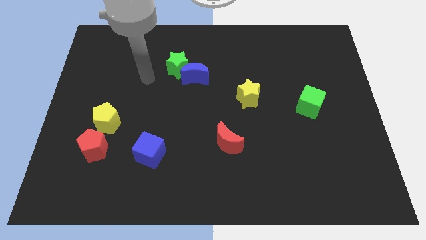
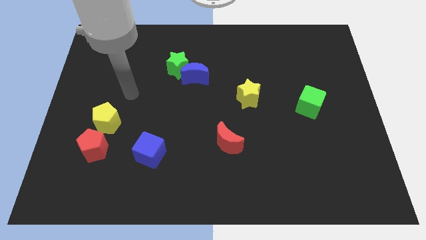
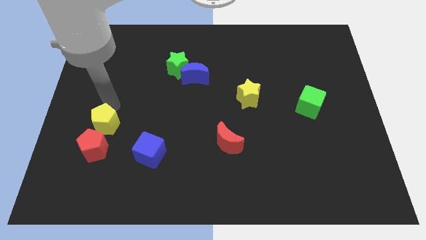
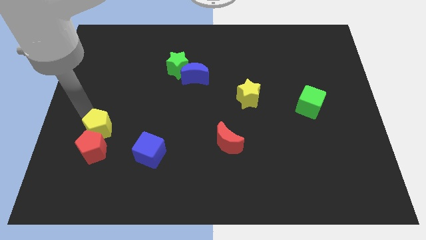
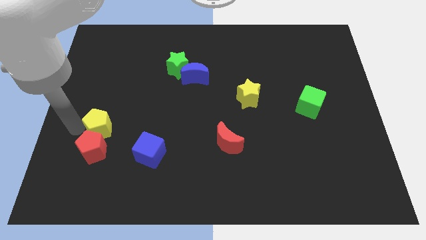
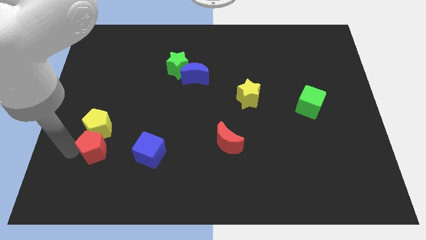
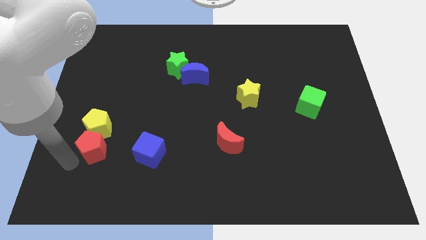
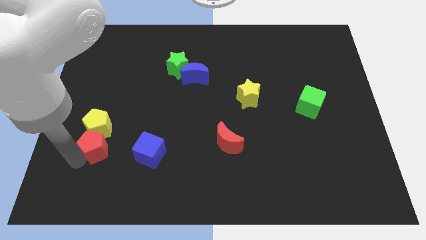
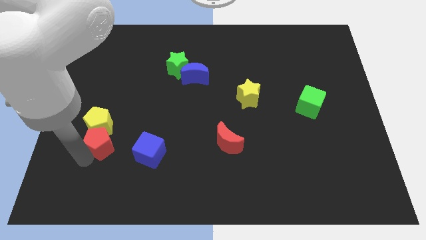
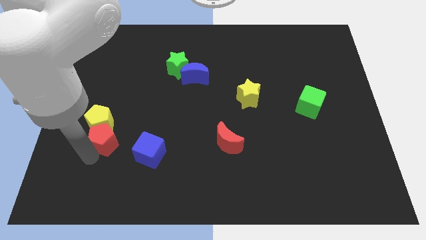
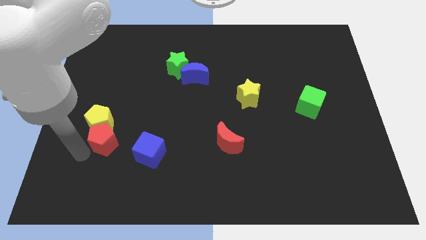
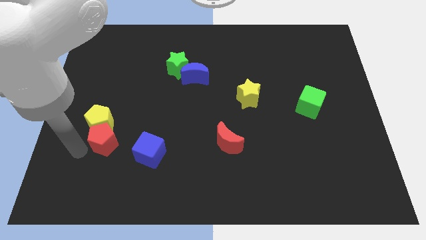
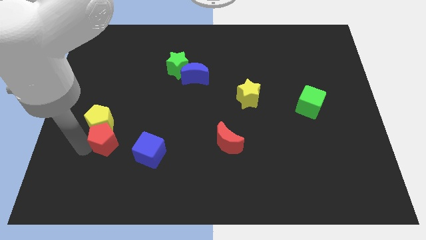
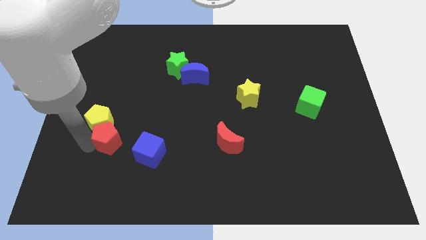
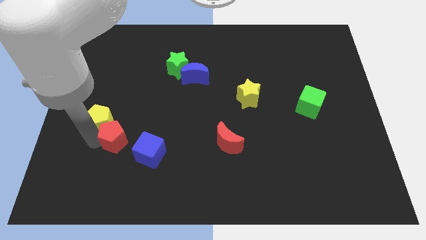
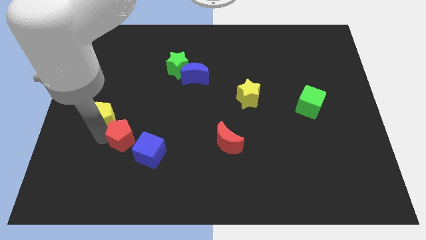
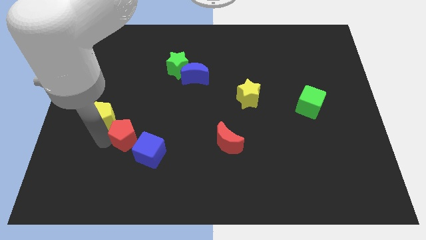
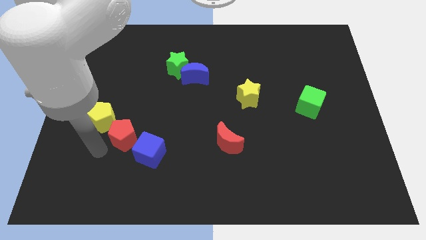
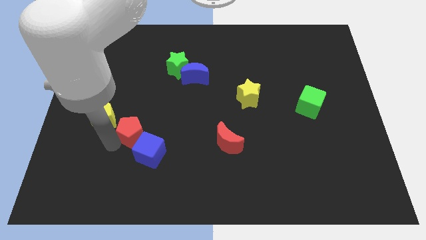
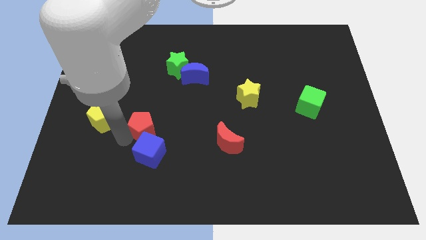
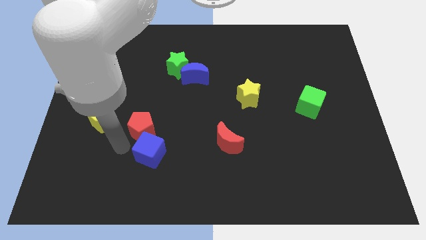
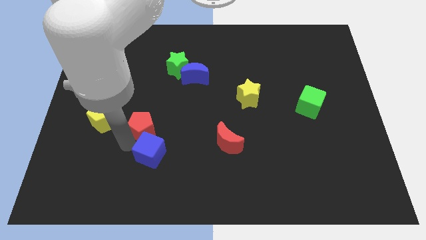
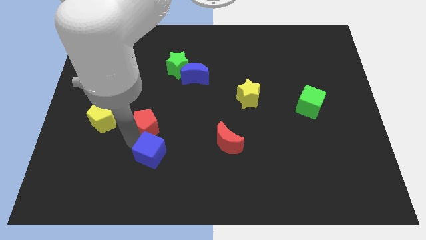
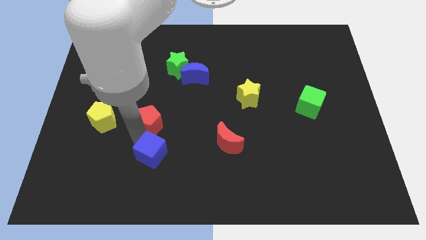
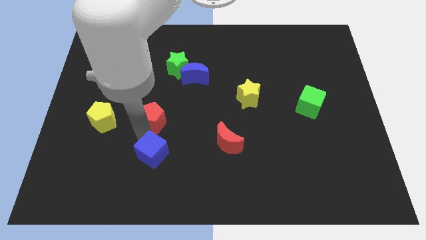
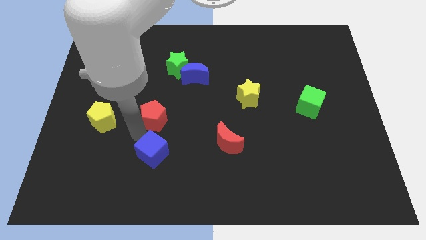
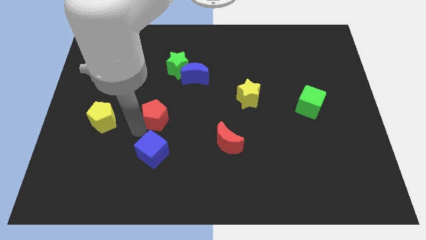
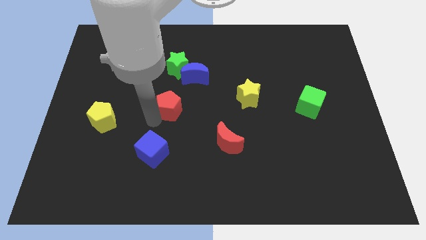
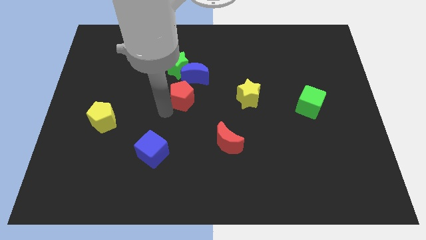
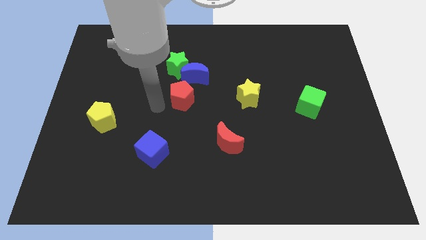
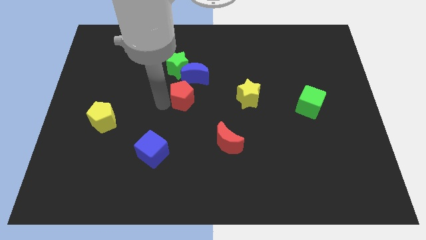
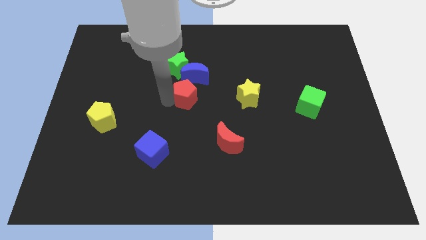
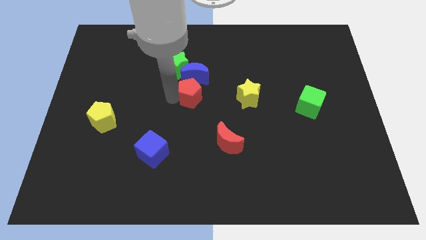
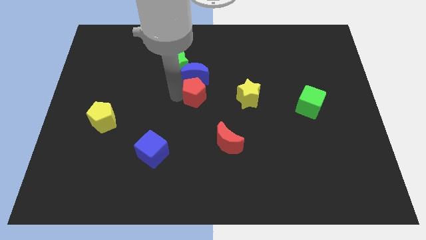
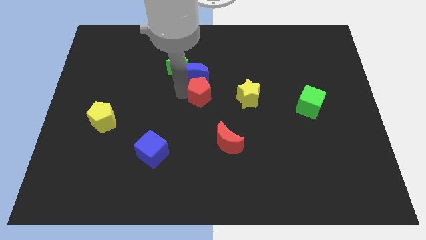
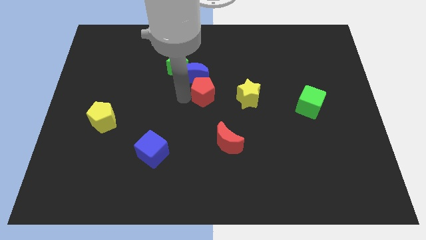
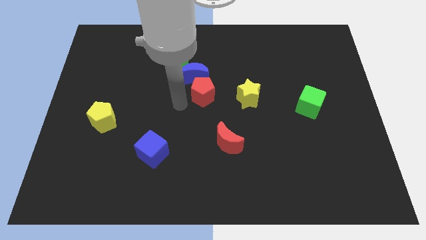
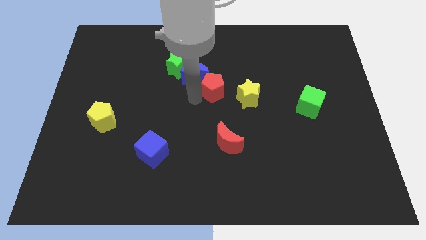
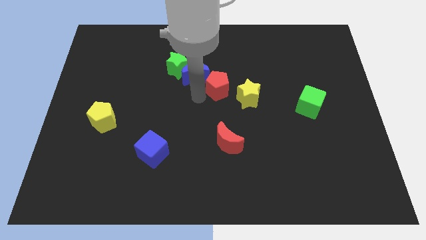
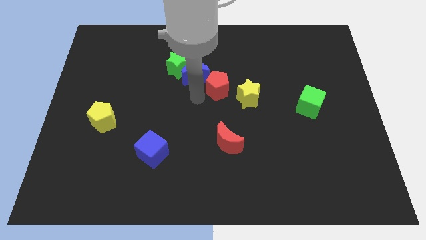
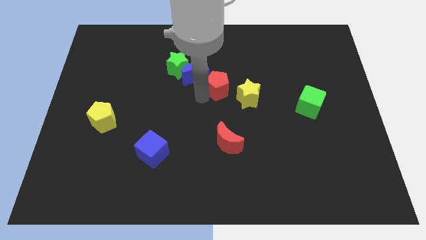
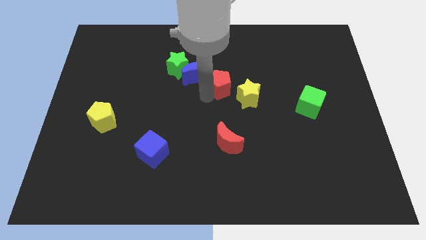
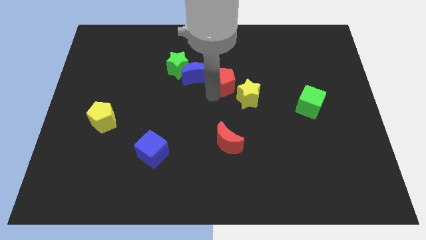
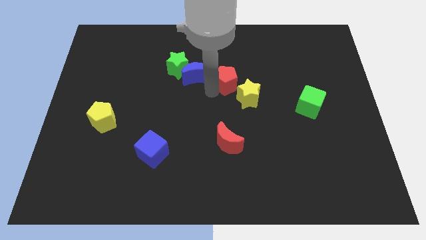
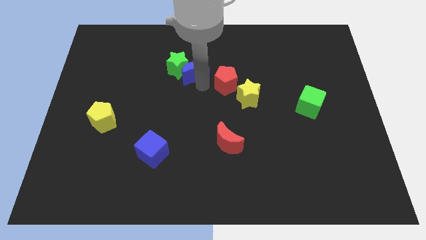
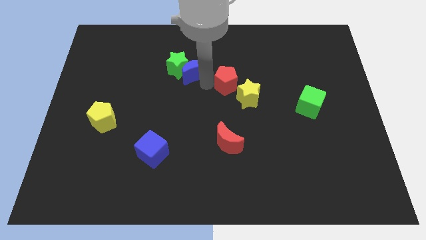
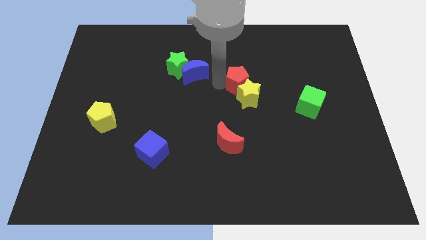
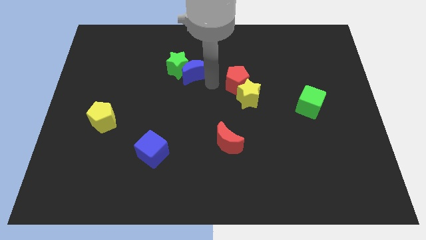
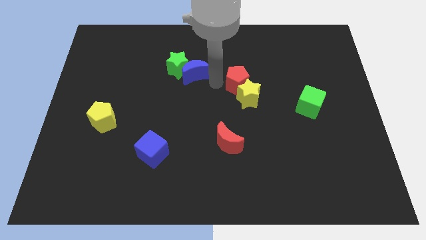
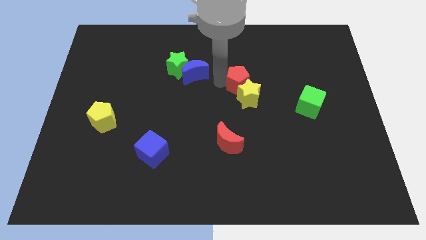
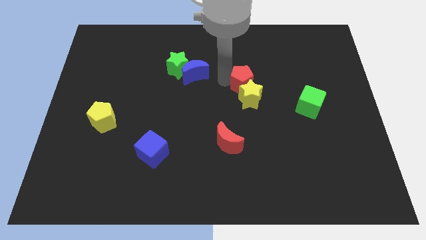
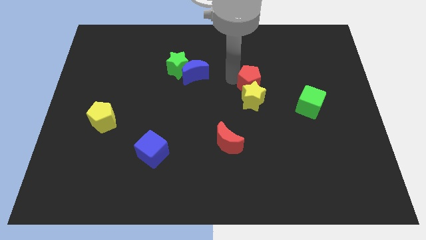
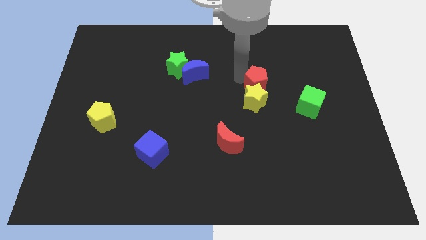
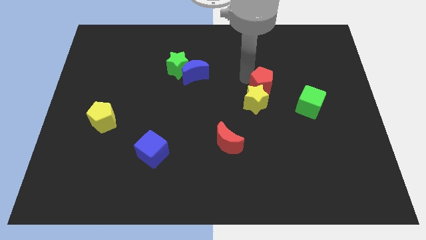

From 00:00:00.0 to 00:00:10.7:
move the red pentagon to the top left side of the green cube

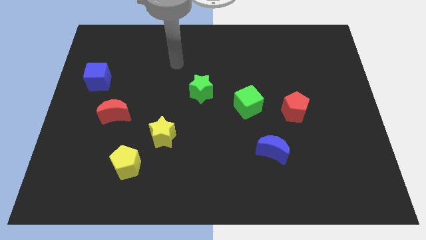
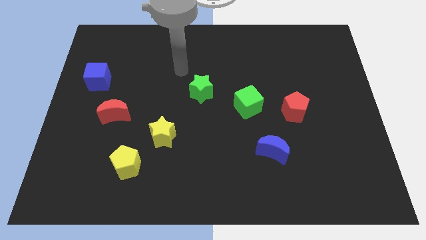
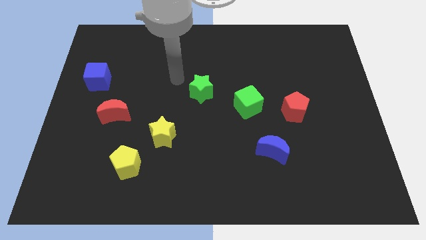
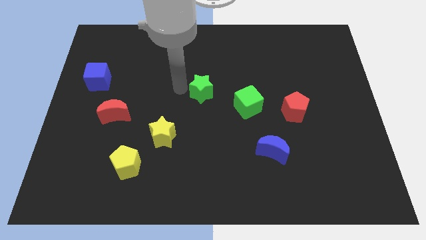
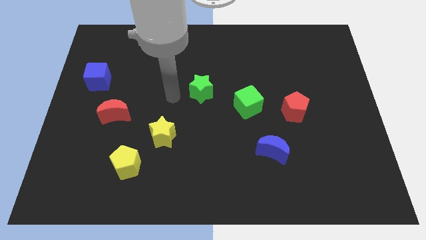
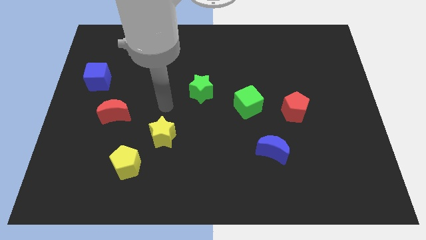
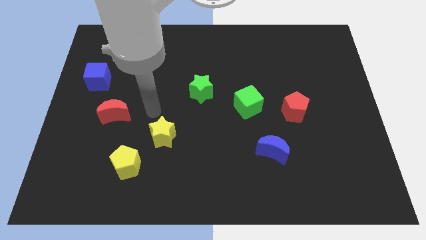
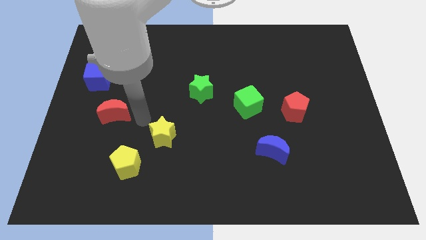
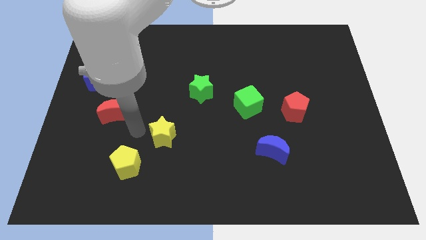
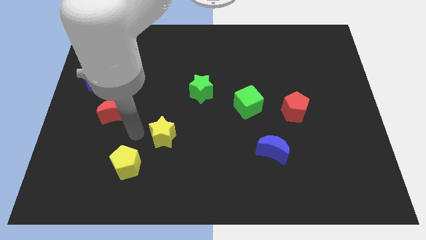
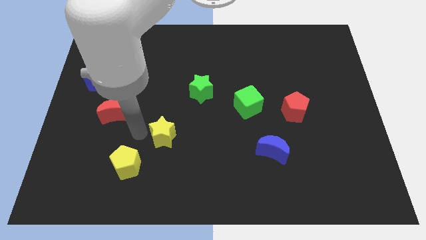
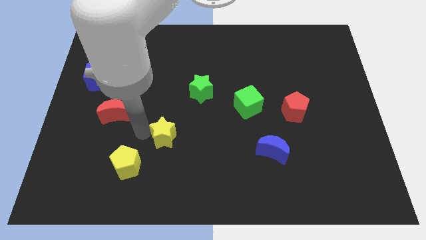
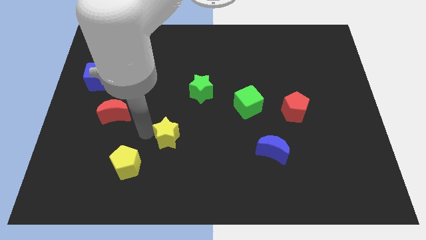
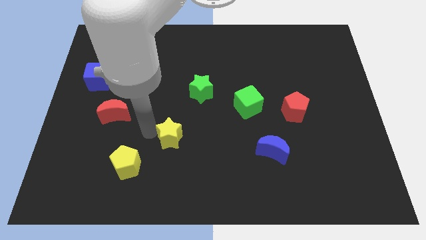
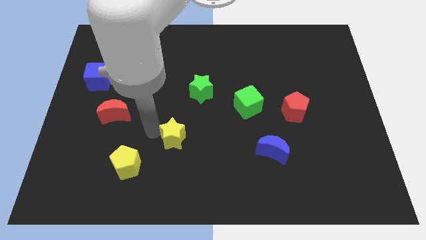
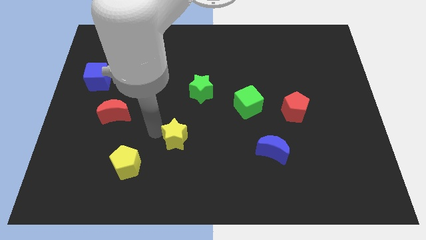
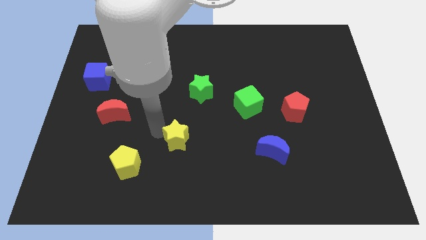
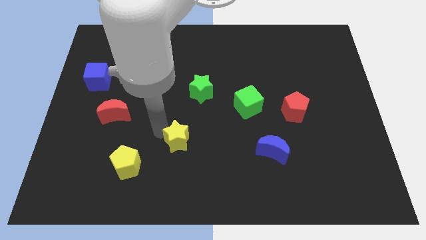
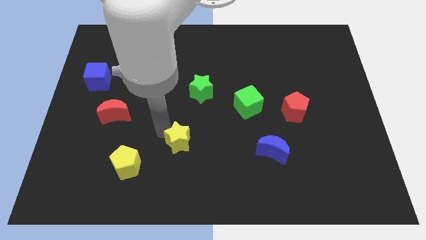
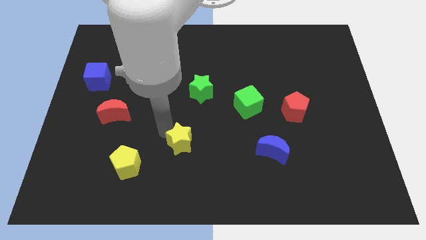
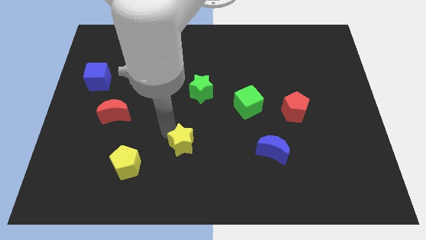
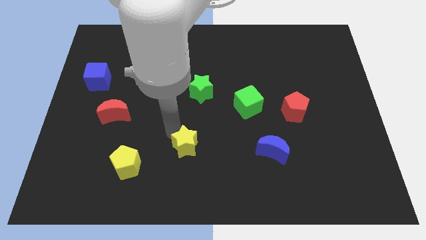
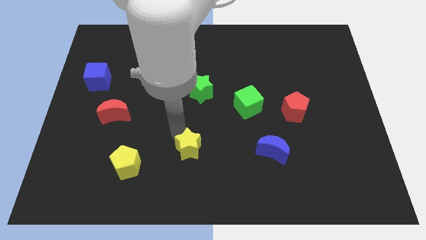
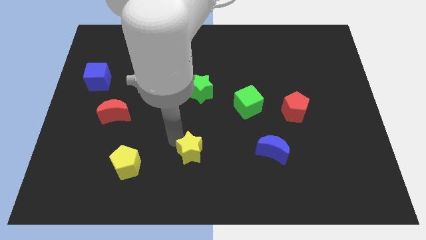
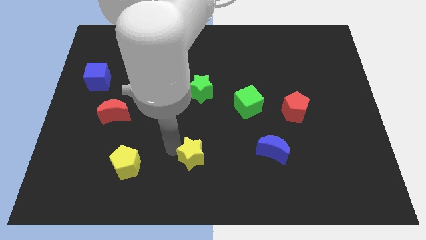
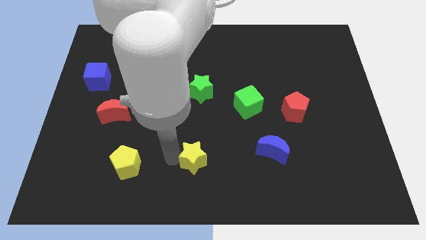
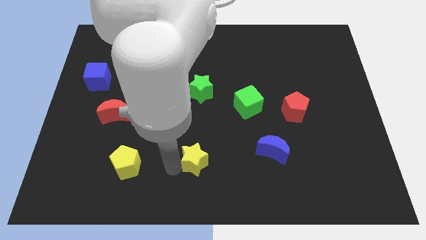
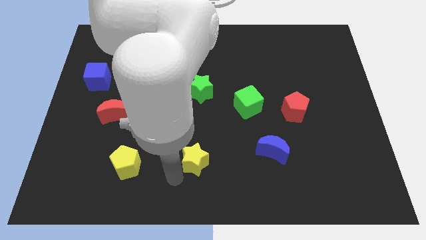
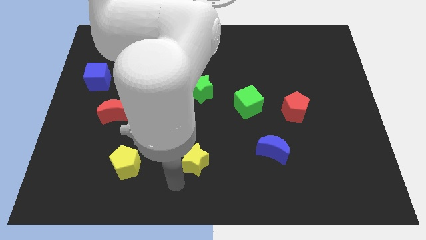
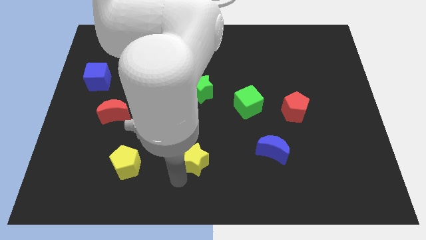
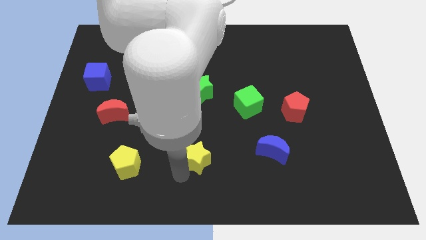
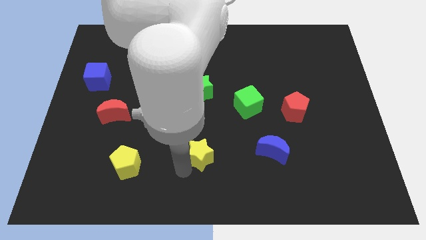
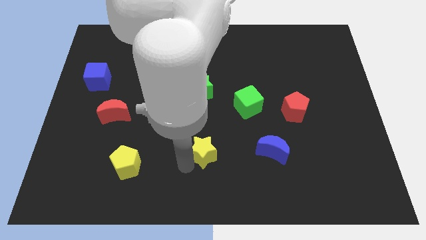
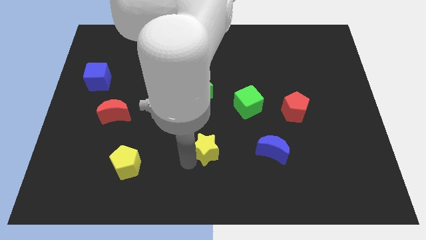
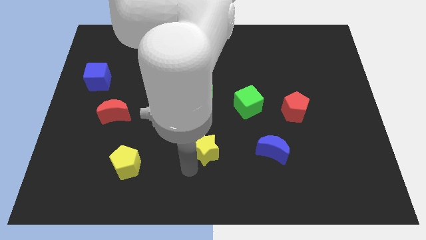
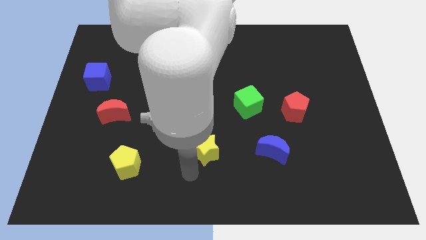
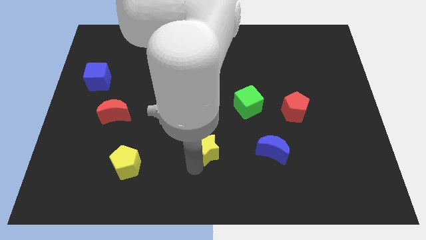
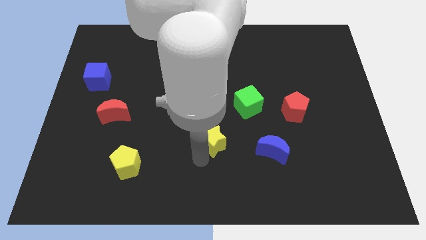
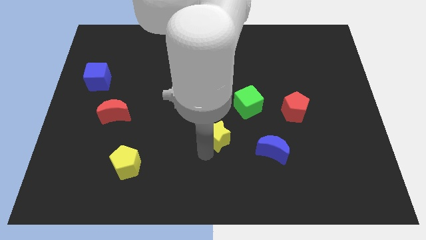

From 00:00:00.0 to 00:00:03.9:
push the yellow star diagonally down and to the left of the green cube
